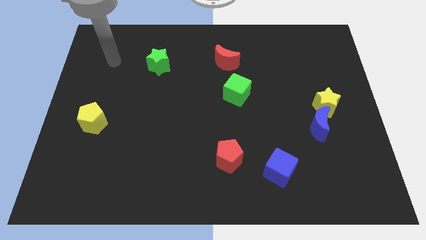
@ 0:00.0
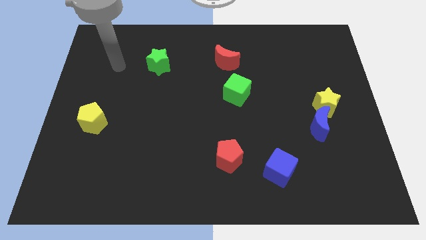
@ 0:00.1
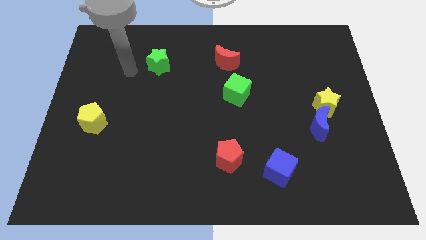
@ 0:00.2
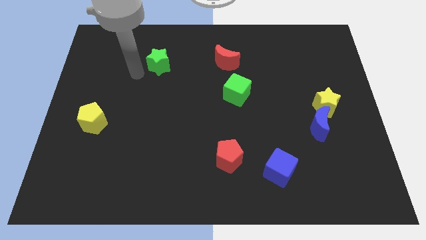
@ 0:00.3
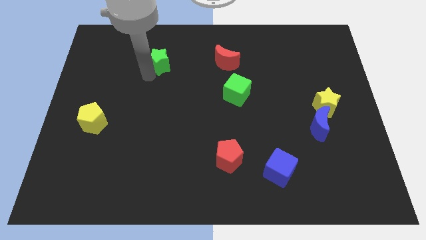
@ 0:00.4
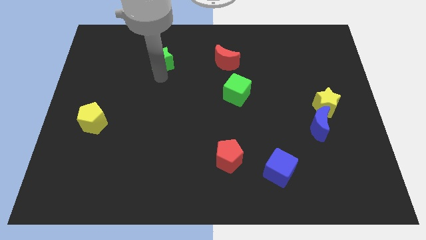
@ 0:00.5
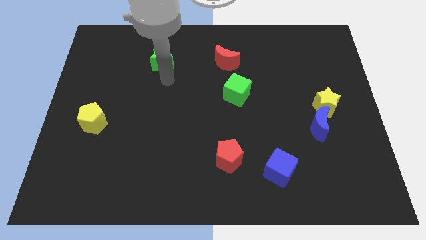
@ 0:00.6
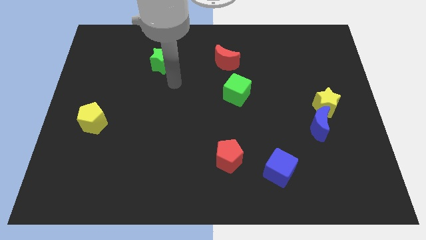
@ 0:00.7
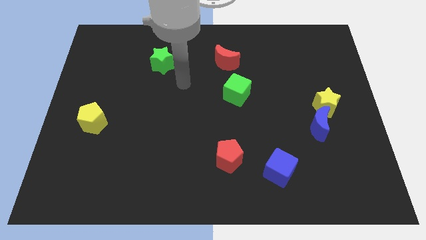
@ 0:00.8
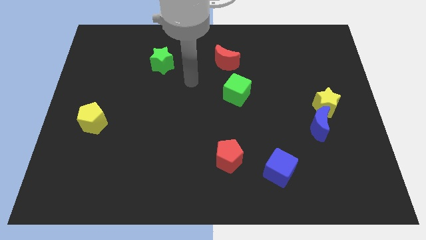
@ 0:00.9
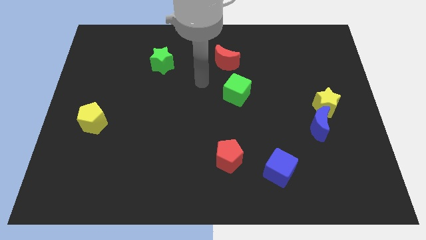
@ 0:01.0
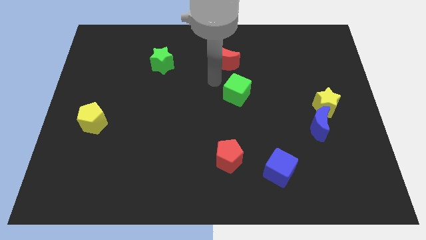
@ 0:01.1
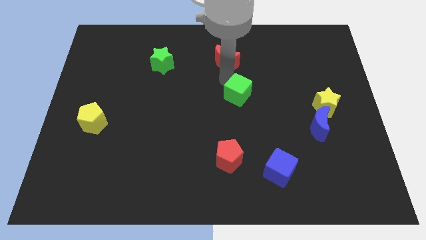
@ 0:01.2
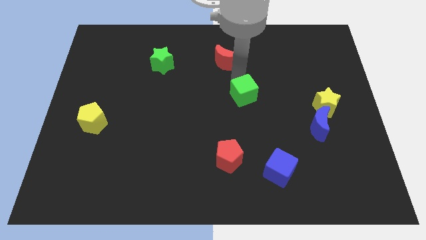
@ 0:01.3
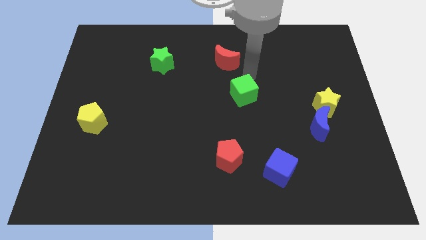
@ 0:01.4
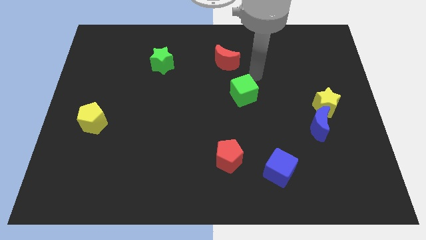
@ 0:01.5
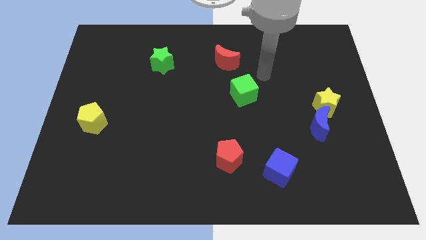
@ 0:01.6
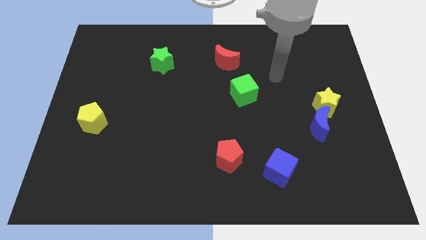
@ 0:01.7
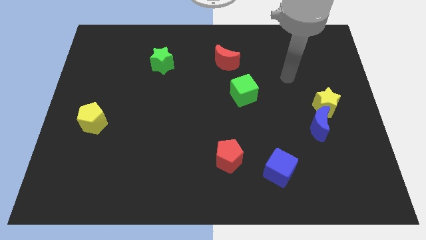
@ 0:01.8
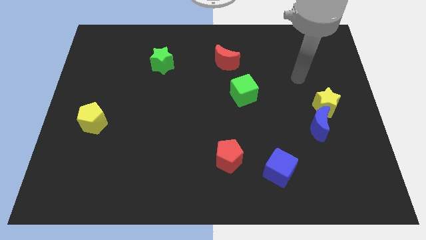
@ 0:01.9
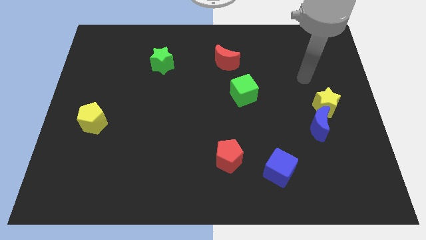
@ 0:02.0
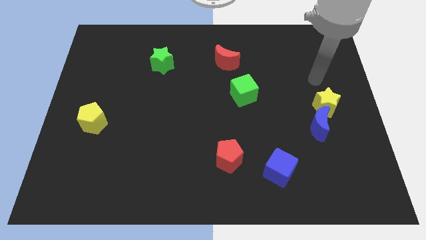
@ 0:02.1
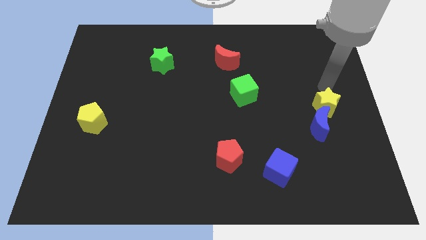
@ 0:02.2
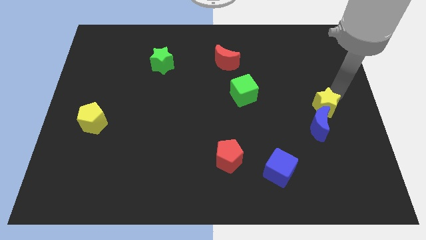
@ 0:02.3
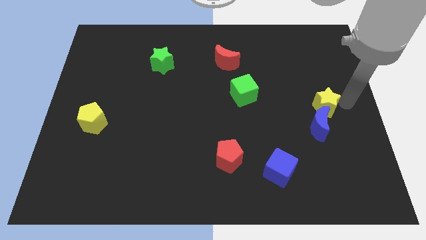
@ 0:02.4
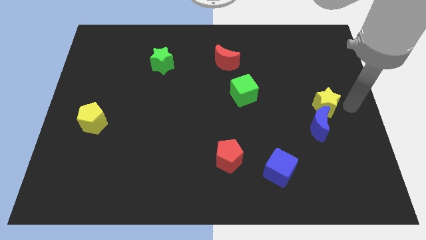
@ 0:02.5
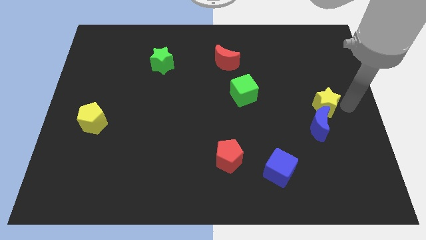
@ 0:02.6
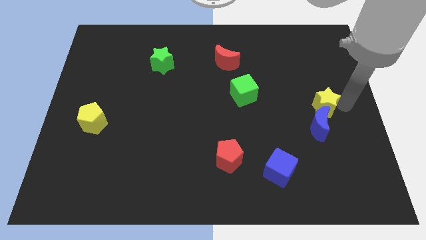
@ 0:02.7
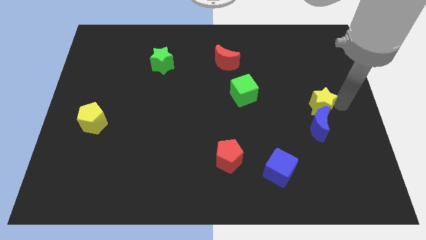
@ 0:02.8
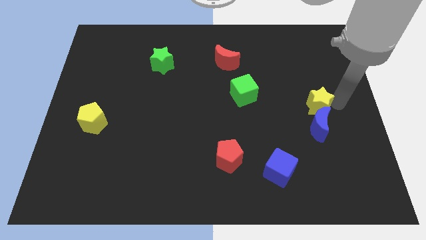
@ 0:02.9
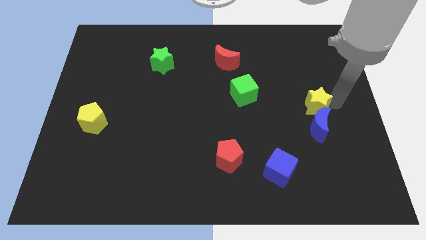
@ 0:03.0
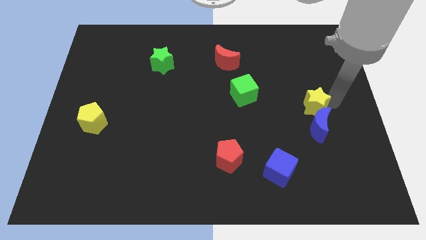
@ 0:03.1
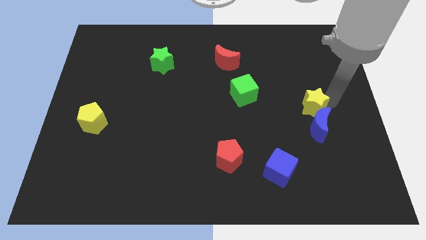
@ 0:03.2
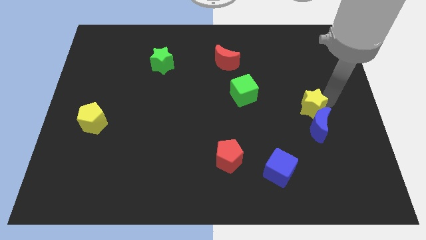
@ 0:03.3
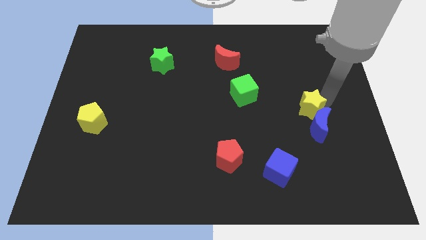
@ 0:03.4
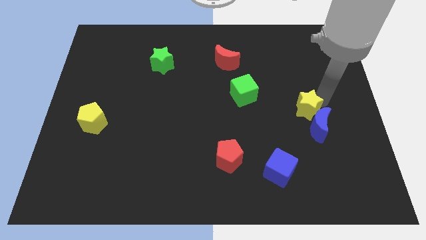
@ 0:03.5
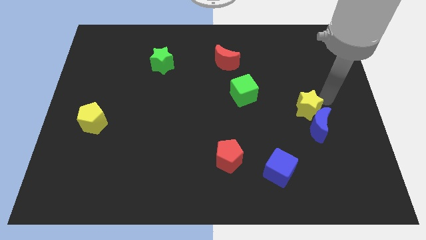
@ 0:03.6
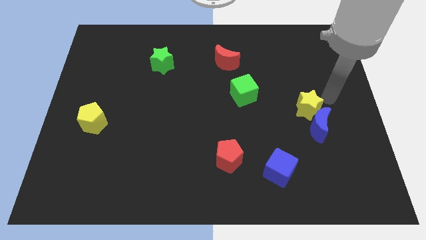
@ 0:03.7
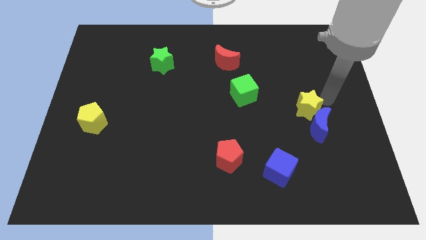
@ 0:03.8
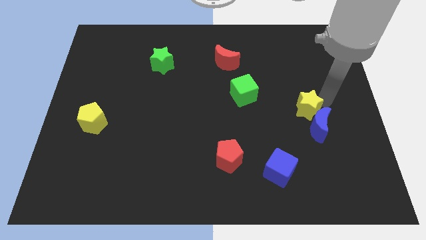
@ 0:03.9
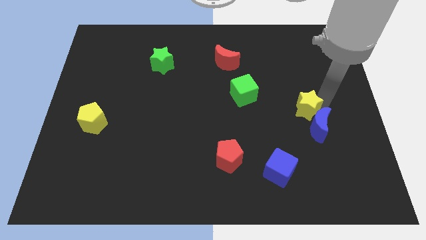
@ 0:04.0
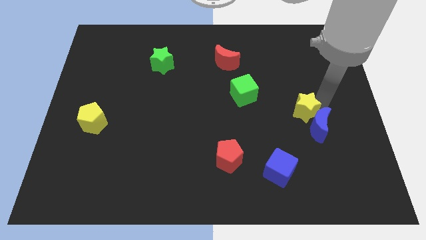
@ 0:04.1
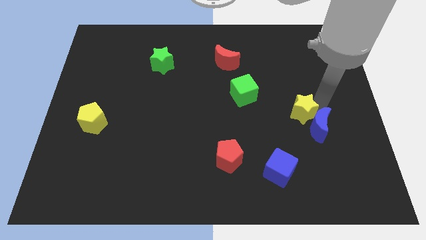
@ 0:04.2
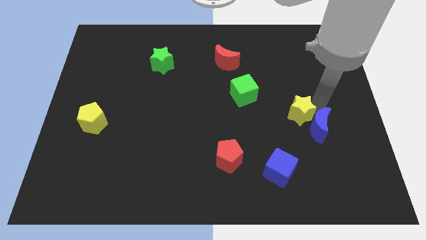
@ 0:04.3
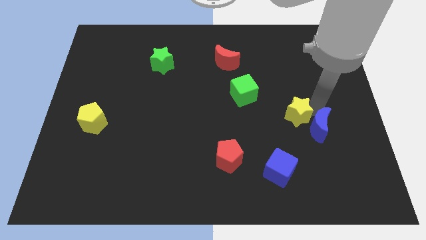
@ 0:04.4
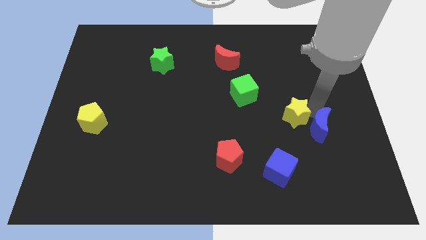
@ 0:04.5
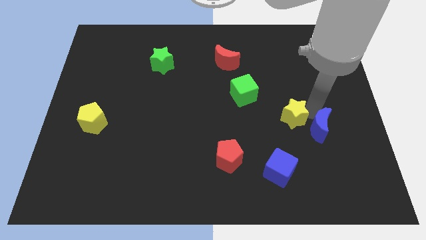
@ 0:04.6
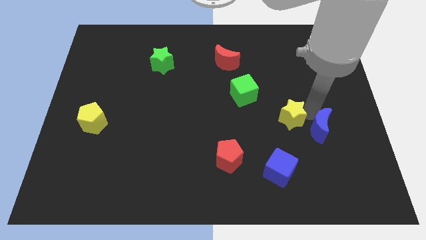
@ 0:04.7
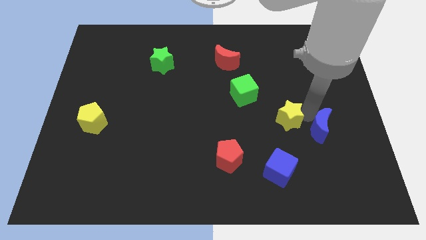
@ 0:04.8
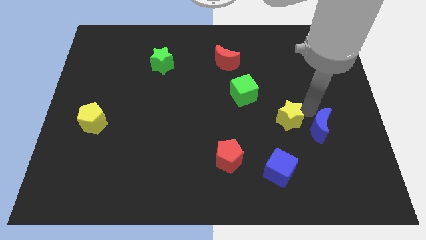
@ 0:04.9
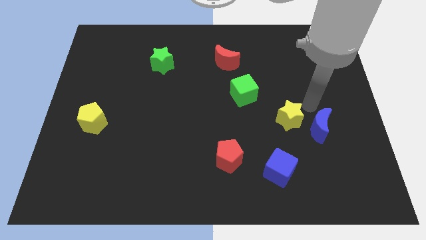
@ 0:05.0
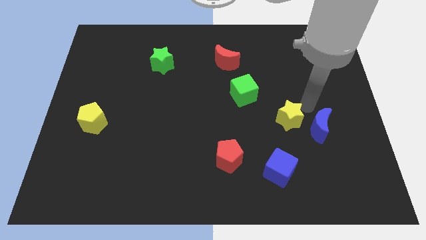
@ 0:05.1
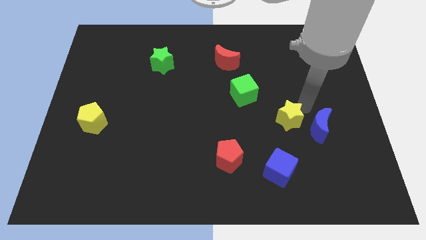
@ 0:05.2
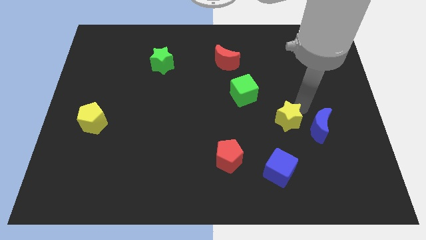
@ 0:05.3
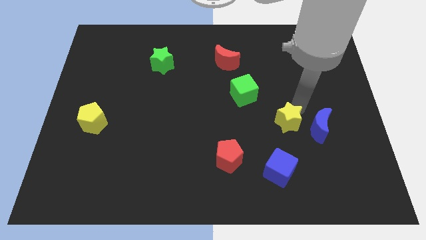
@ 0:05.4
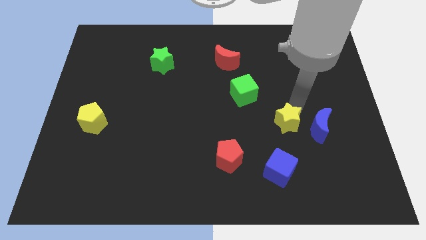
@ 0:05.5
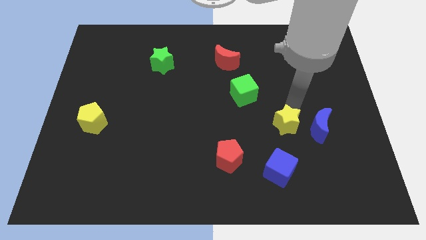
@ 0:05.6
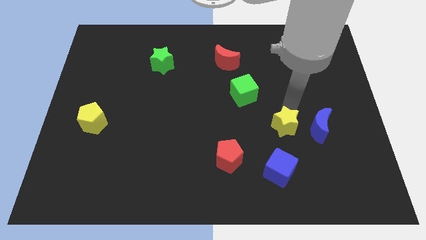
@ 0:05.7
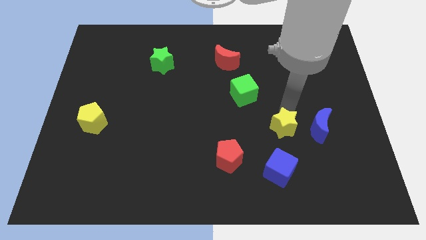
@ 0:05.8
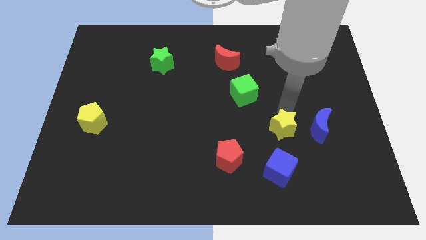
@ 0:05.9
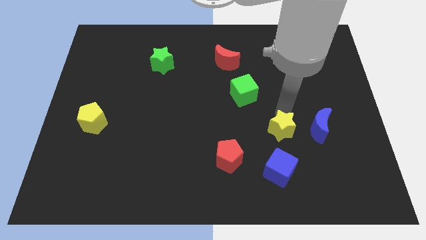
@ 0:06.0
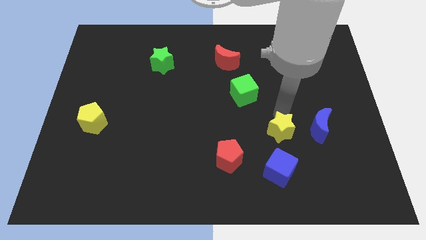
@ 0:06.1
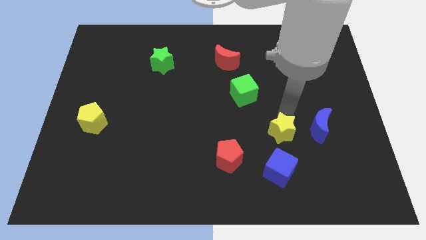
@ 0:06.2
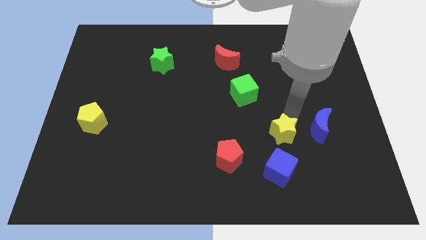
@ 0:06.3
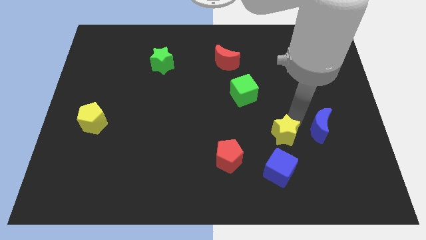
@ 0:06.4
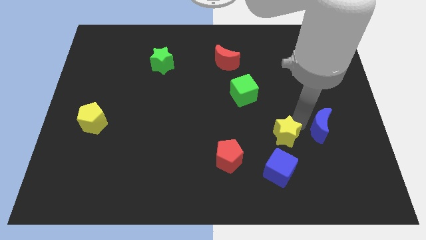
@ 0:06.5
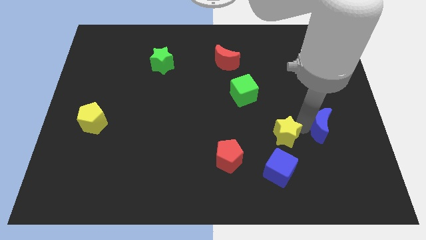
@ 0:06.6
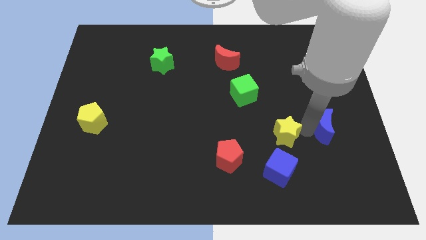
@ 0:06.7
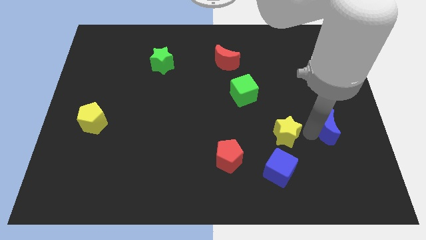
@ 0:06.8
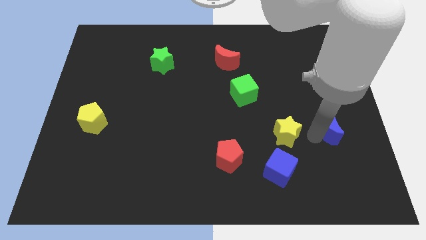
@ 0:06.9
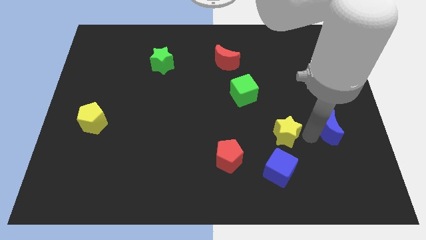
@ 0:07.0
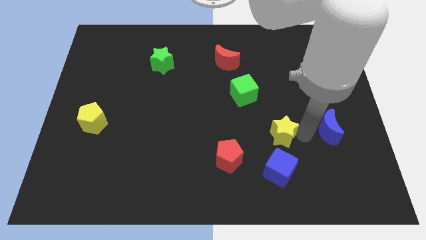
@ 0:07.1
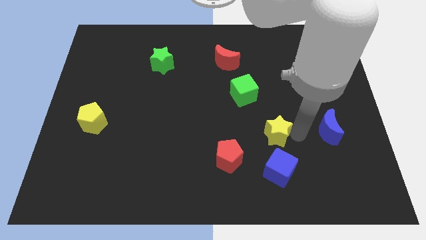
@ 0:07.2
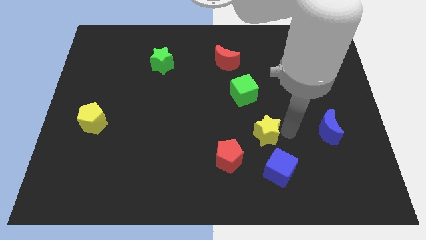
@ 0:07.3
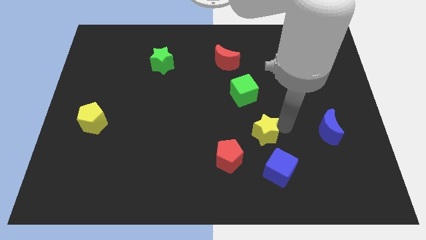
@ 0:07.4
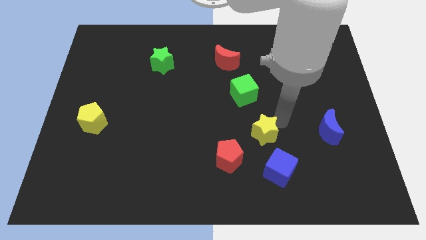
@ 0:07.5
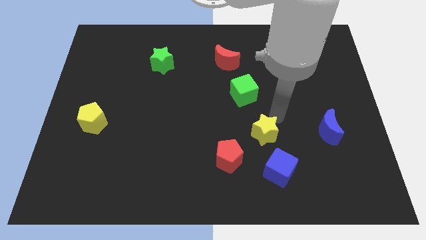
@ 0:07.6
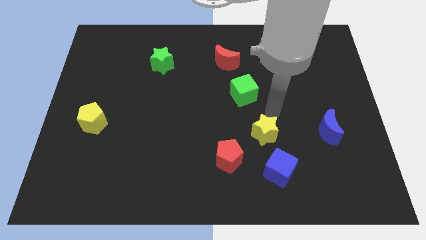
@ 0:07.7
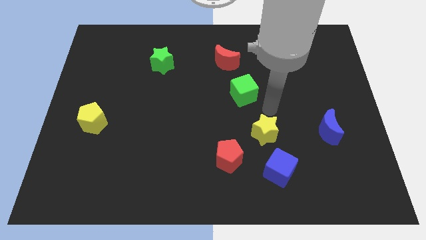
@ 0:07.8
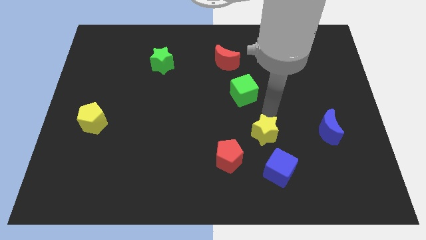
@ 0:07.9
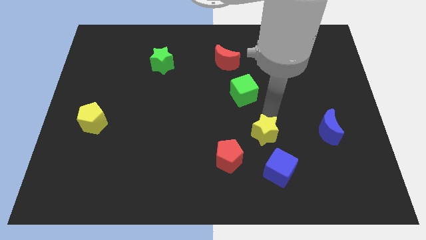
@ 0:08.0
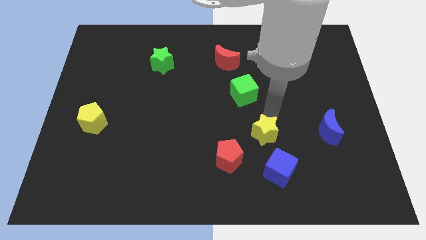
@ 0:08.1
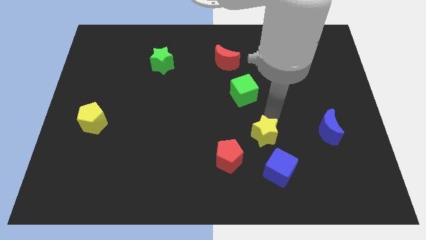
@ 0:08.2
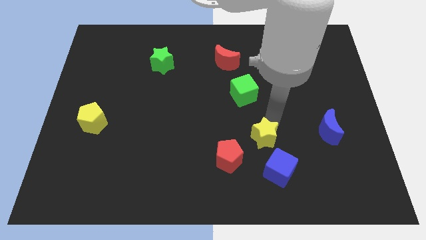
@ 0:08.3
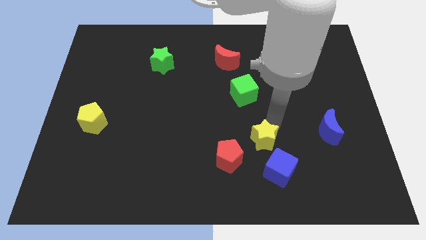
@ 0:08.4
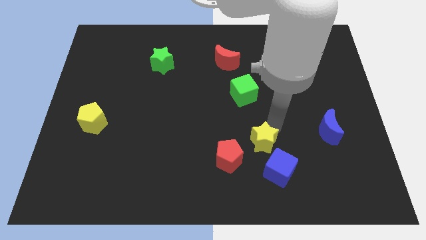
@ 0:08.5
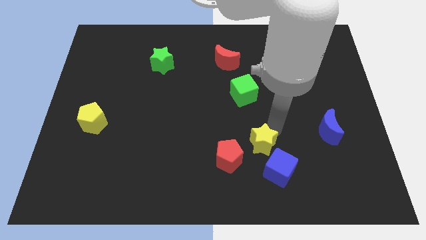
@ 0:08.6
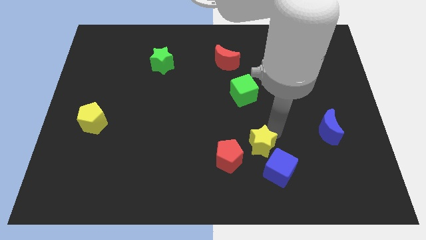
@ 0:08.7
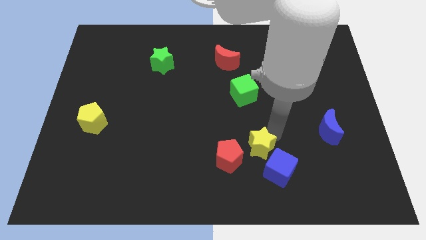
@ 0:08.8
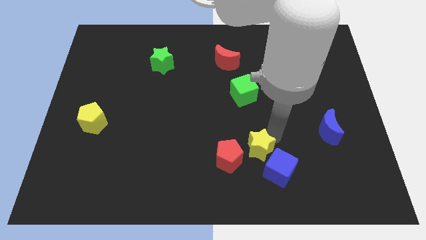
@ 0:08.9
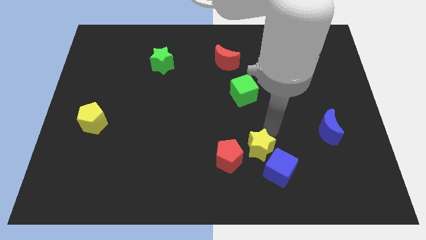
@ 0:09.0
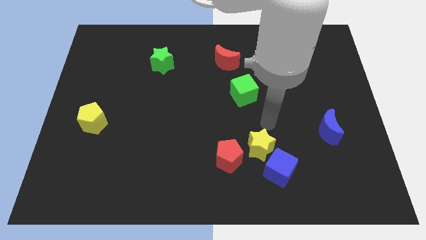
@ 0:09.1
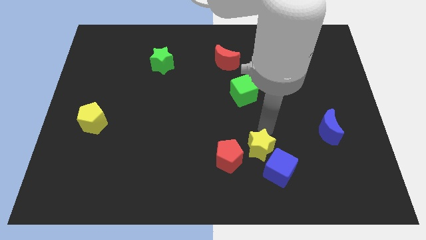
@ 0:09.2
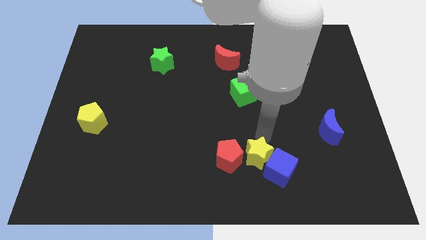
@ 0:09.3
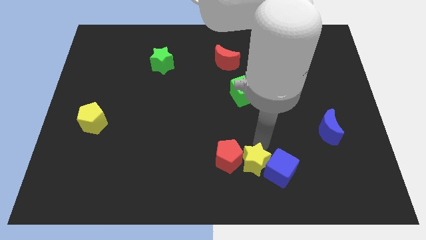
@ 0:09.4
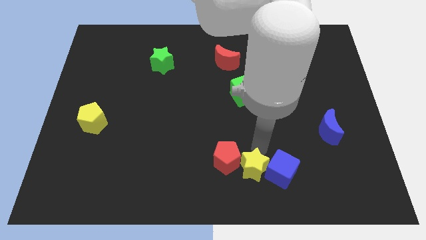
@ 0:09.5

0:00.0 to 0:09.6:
push the yellow star to the bottom side
